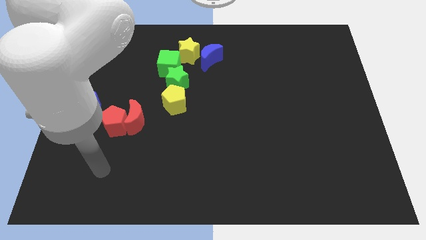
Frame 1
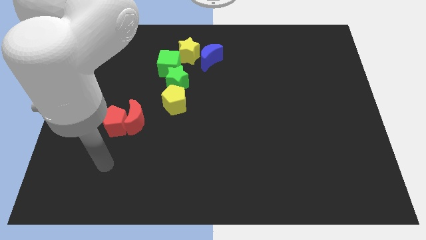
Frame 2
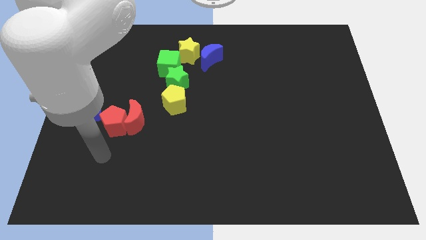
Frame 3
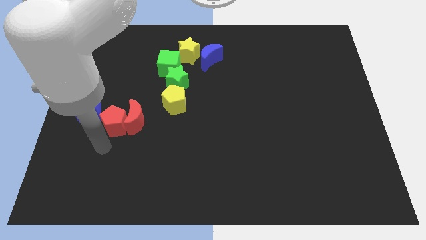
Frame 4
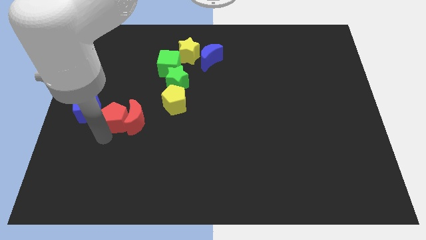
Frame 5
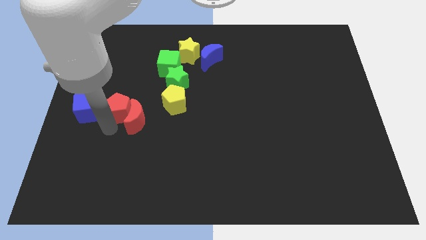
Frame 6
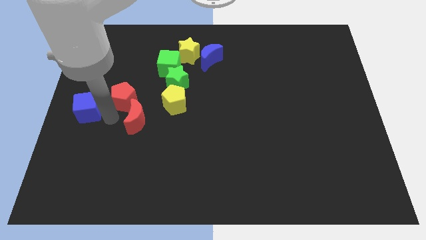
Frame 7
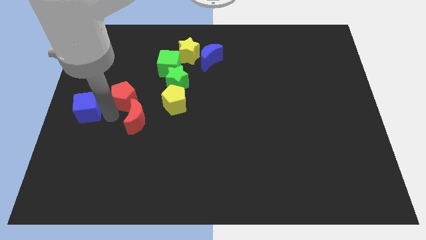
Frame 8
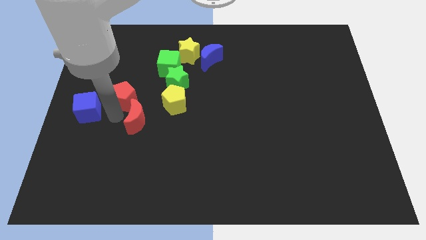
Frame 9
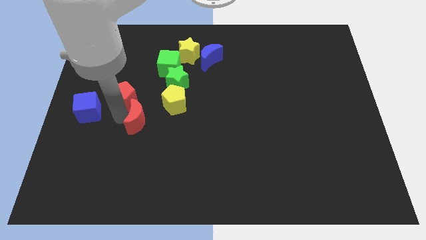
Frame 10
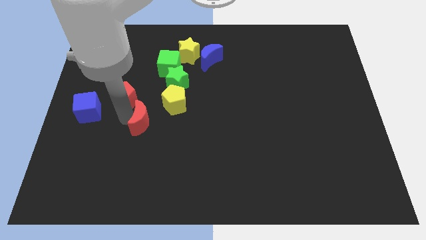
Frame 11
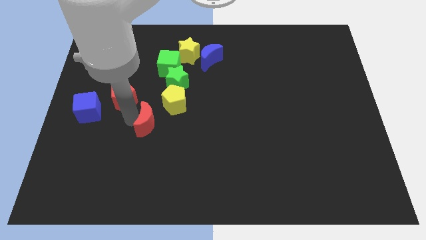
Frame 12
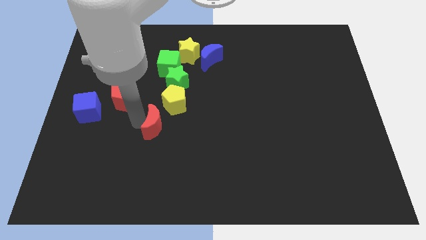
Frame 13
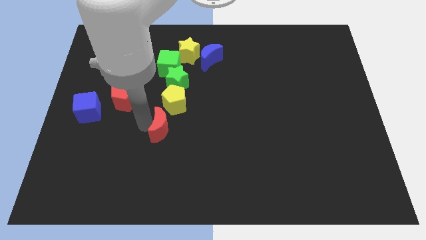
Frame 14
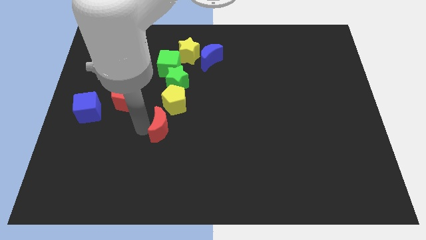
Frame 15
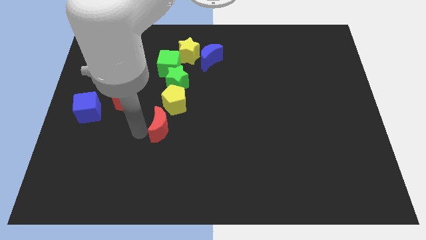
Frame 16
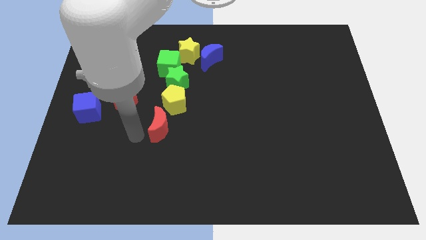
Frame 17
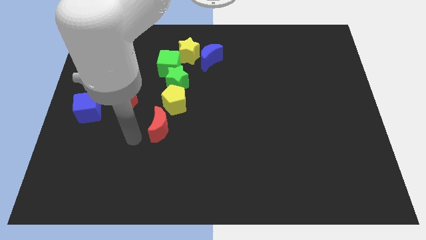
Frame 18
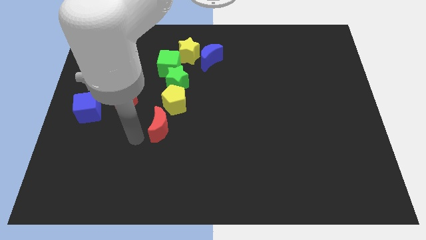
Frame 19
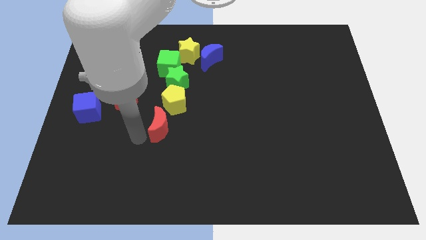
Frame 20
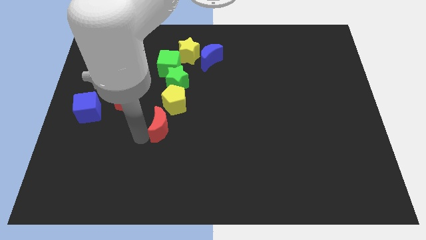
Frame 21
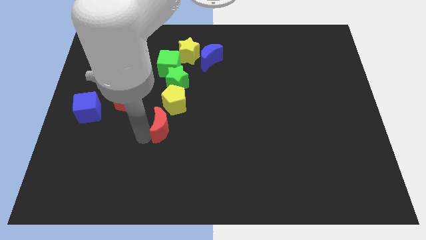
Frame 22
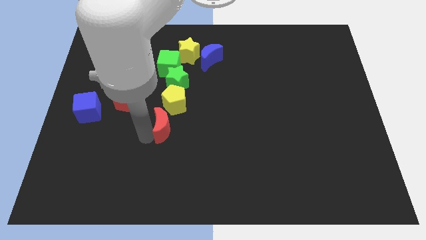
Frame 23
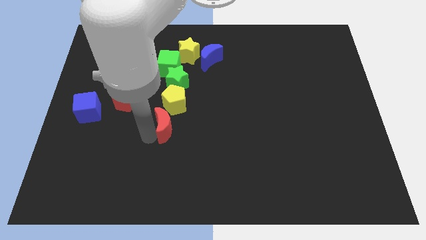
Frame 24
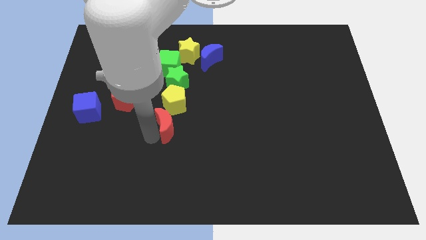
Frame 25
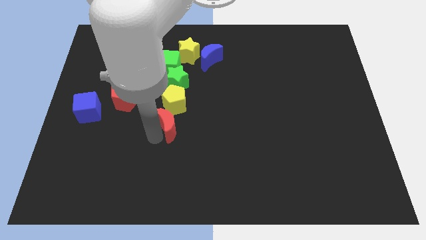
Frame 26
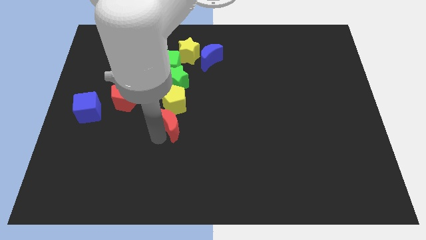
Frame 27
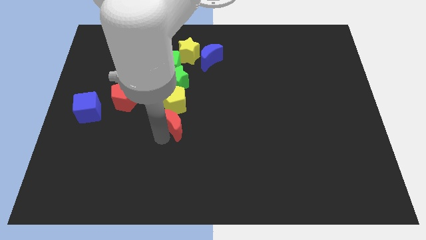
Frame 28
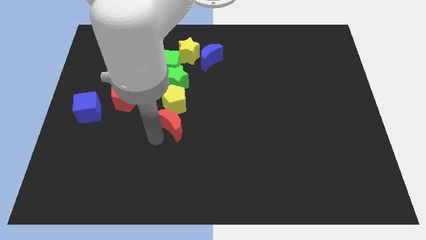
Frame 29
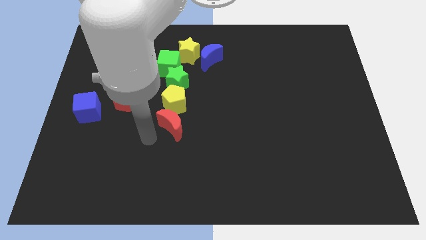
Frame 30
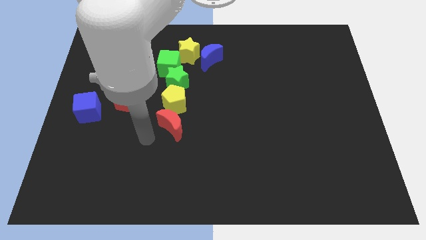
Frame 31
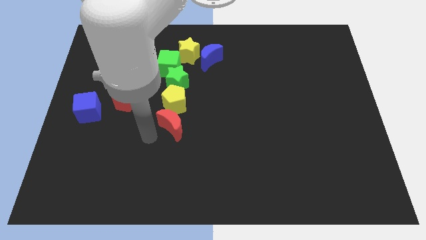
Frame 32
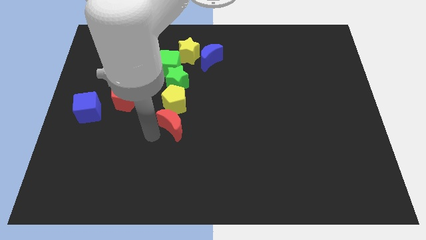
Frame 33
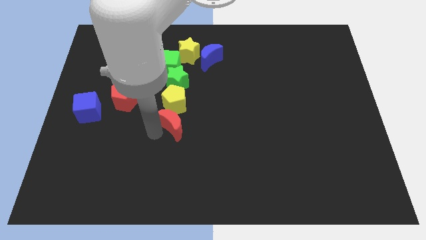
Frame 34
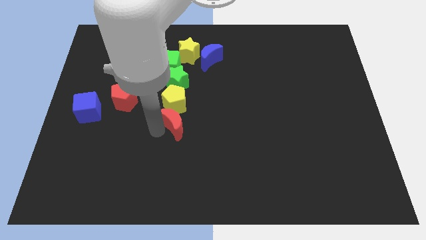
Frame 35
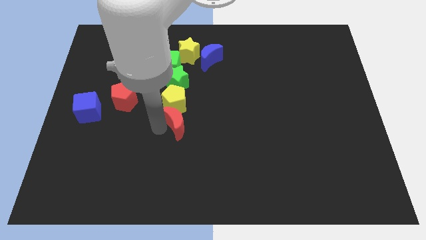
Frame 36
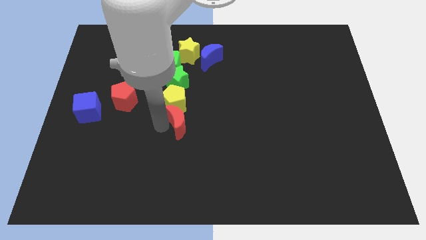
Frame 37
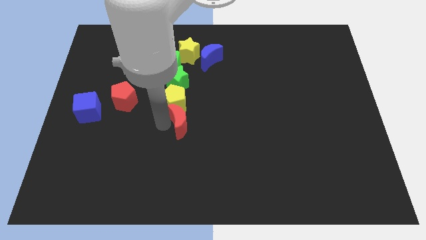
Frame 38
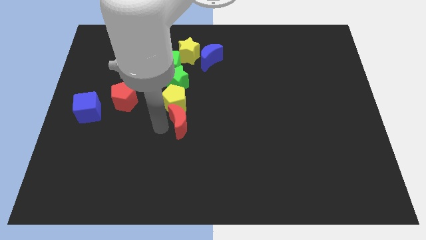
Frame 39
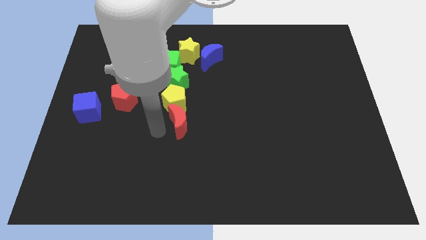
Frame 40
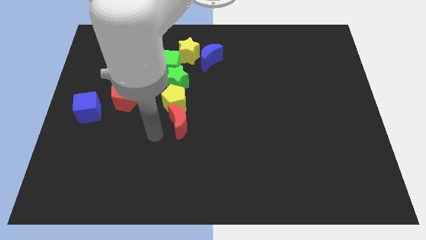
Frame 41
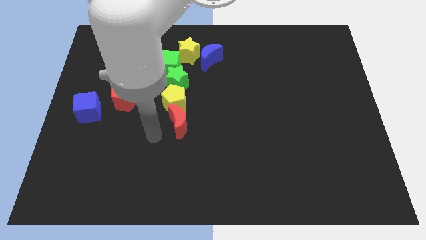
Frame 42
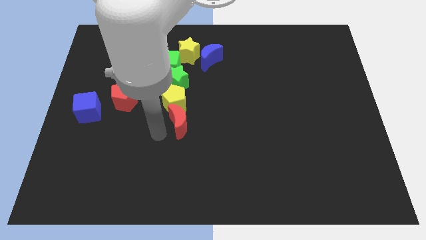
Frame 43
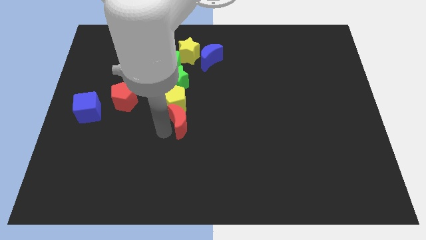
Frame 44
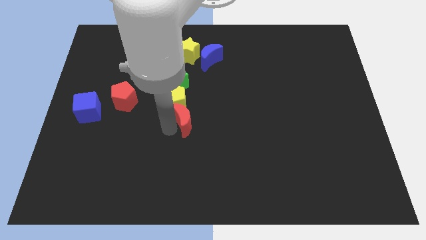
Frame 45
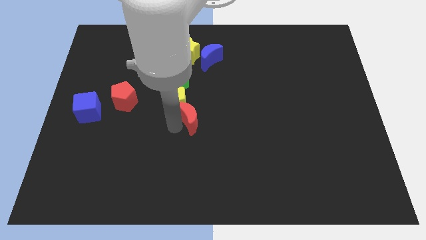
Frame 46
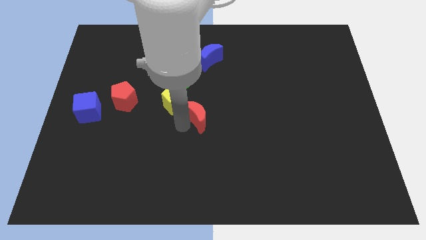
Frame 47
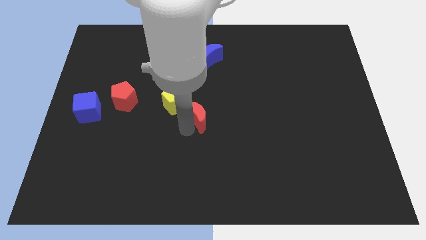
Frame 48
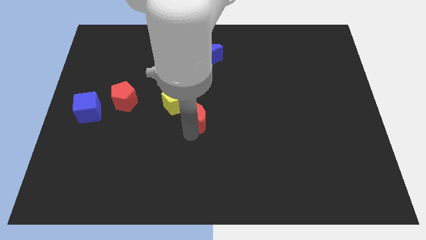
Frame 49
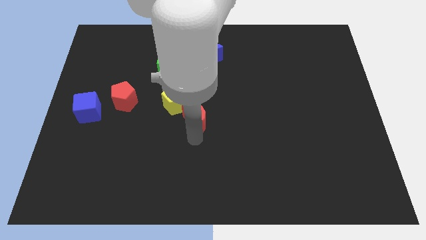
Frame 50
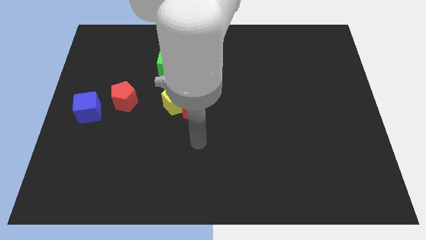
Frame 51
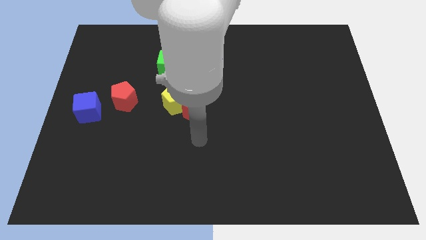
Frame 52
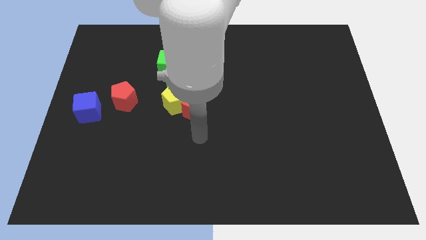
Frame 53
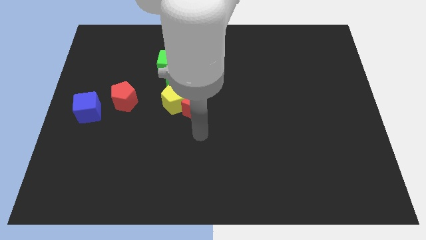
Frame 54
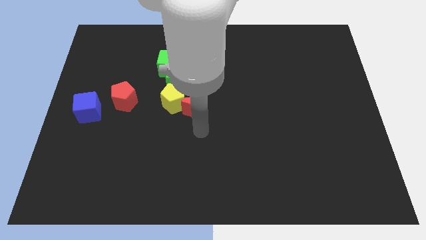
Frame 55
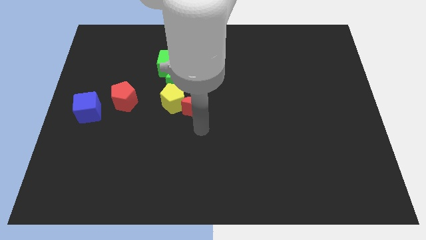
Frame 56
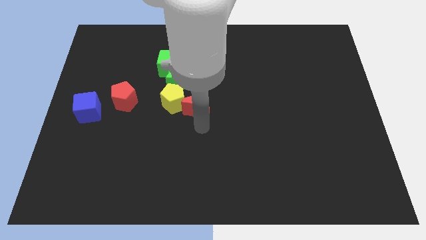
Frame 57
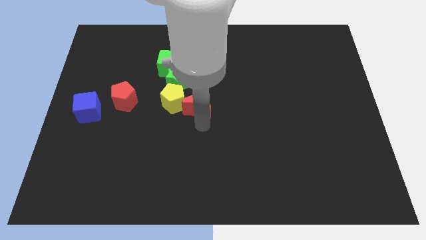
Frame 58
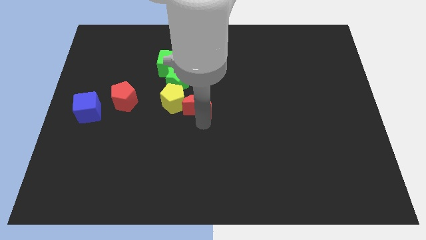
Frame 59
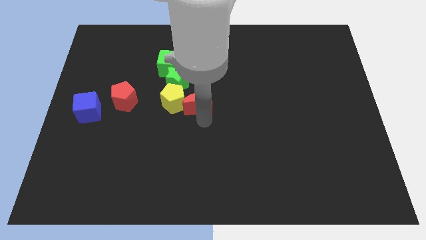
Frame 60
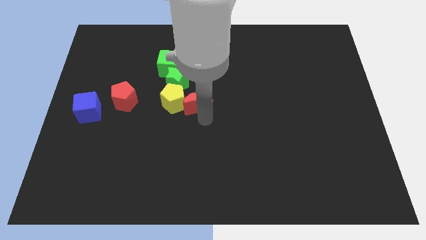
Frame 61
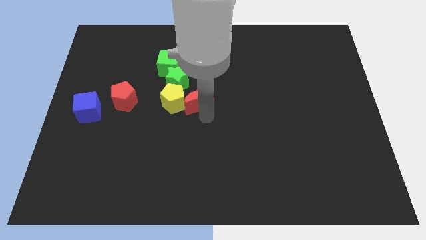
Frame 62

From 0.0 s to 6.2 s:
push the red moon to the top right of the yellow pentagon

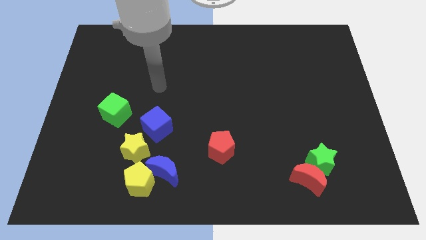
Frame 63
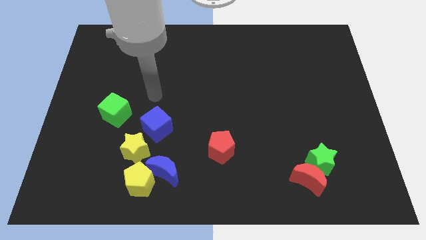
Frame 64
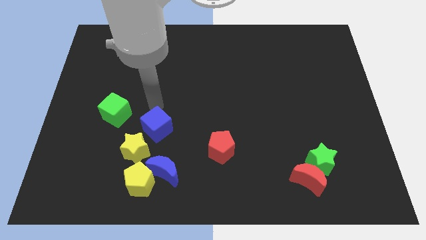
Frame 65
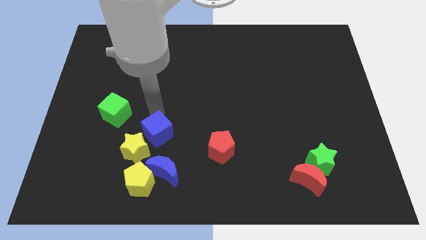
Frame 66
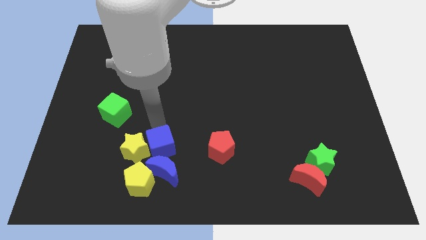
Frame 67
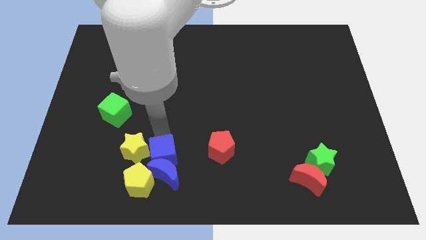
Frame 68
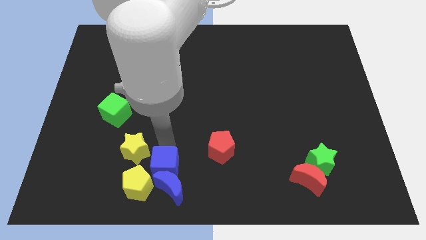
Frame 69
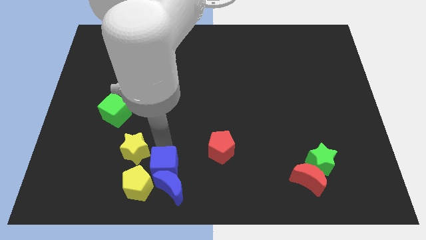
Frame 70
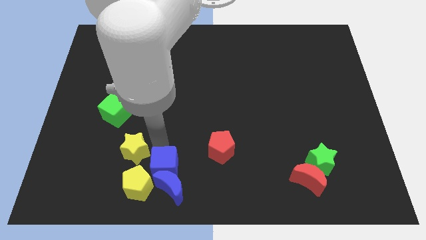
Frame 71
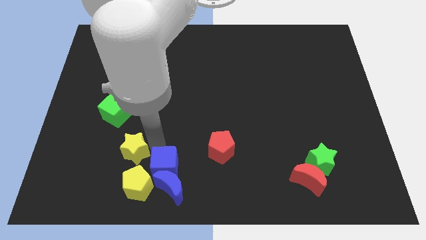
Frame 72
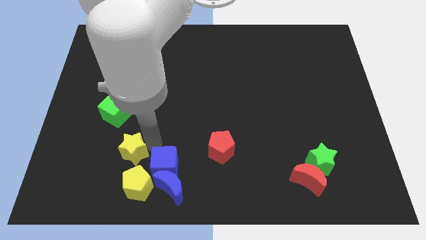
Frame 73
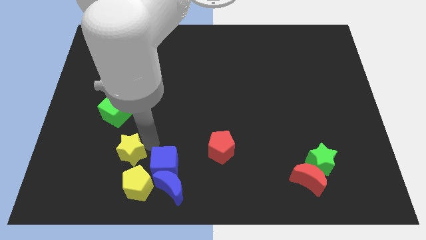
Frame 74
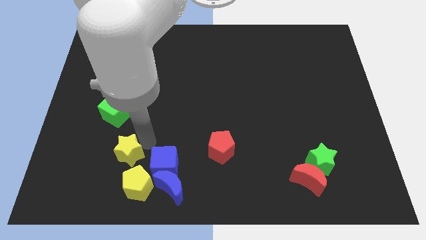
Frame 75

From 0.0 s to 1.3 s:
move the yellow star below the green cube
